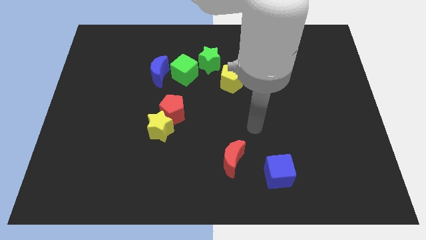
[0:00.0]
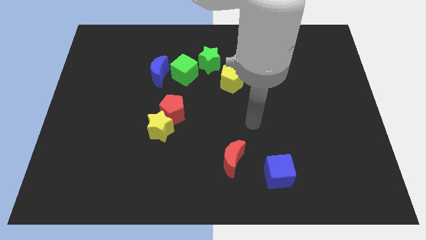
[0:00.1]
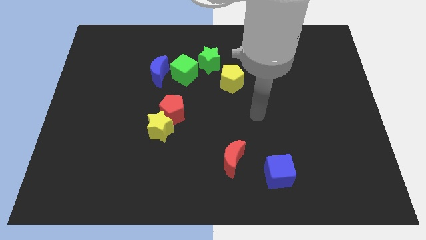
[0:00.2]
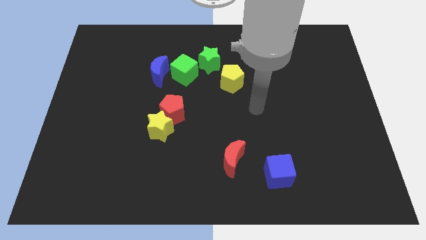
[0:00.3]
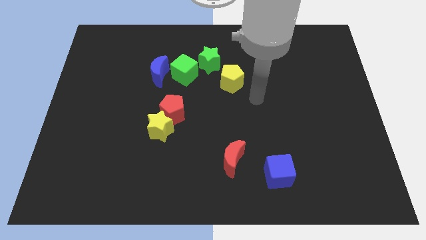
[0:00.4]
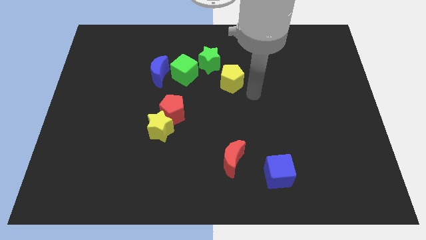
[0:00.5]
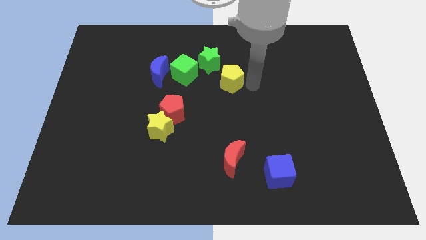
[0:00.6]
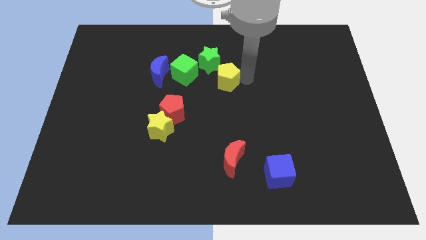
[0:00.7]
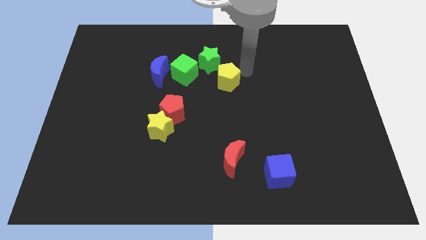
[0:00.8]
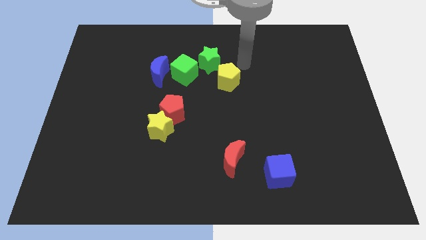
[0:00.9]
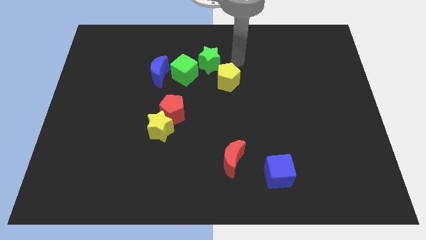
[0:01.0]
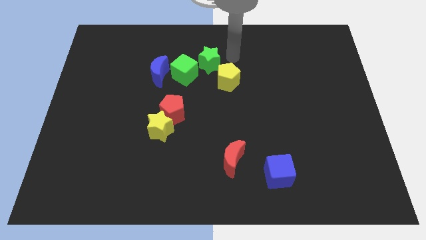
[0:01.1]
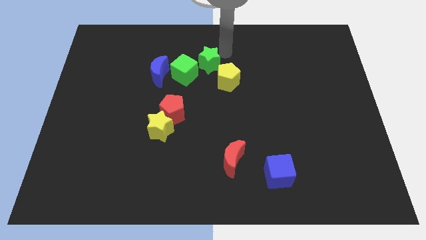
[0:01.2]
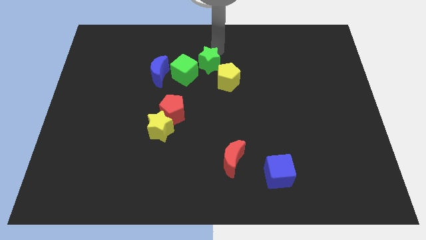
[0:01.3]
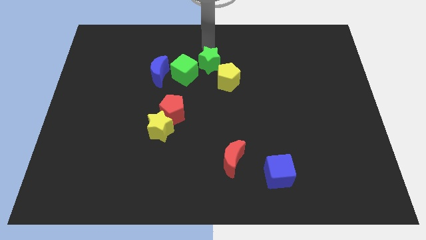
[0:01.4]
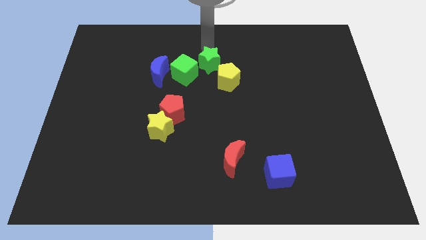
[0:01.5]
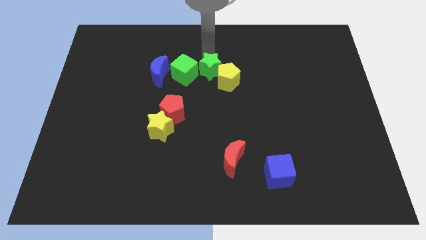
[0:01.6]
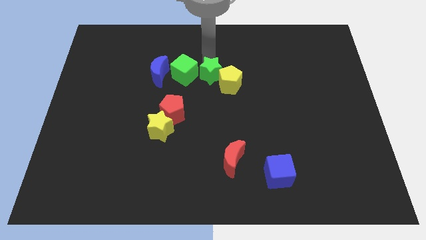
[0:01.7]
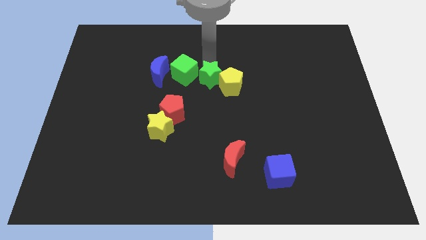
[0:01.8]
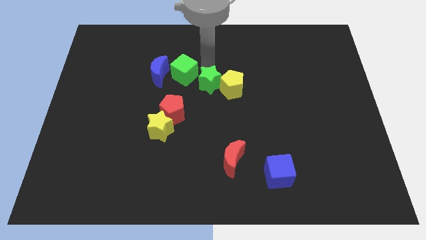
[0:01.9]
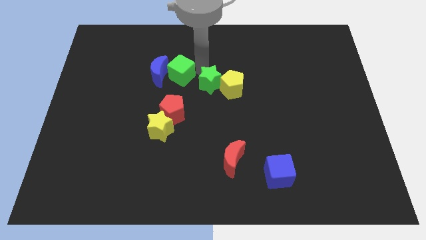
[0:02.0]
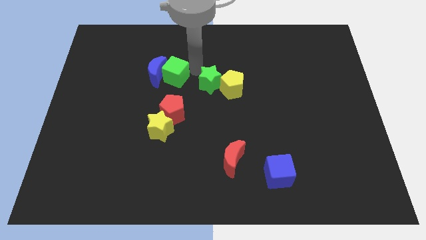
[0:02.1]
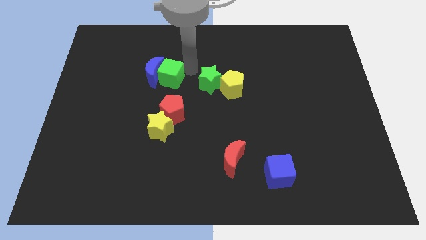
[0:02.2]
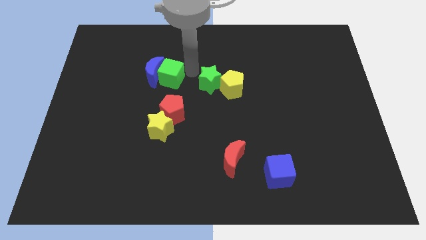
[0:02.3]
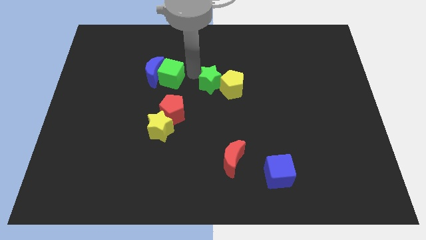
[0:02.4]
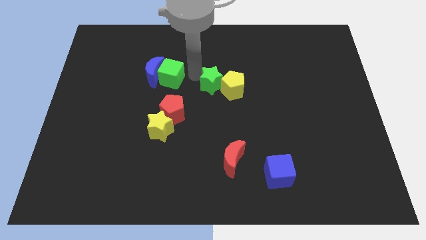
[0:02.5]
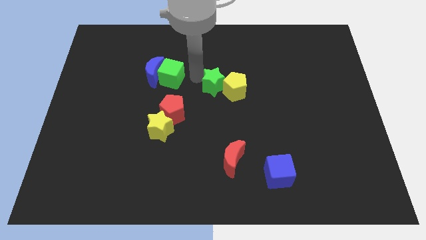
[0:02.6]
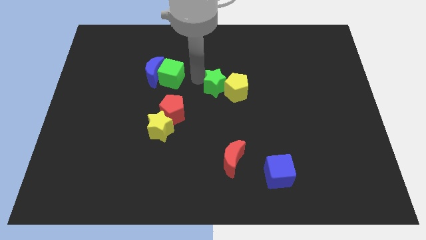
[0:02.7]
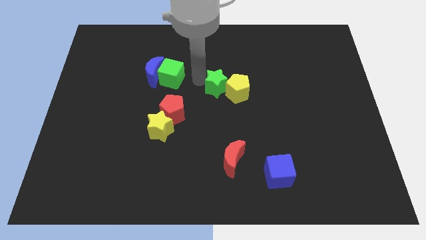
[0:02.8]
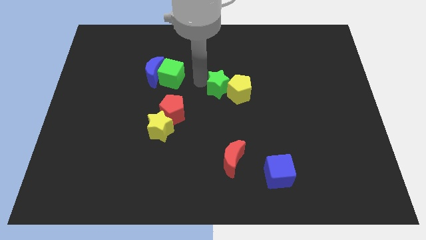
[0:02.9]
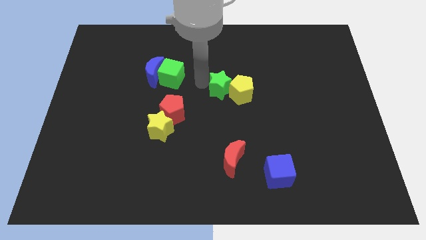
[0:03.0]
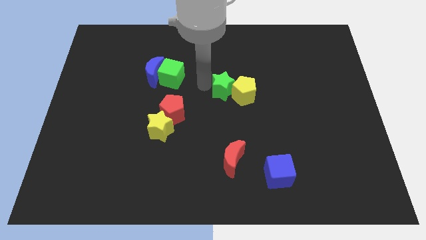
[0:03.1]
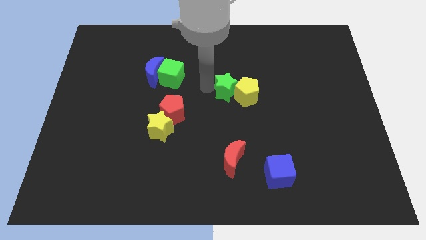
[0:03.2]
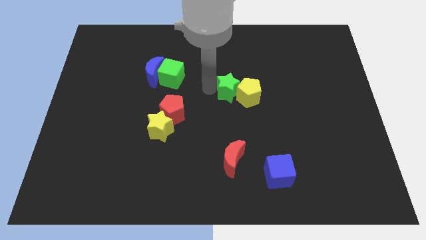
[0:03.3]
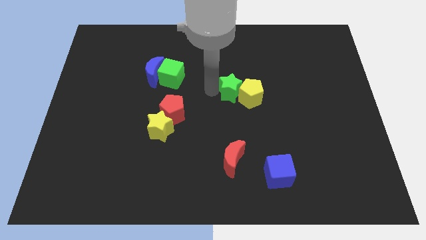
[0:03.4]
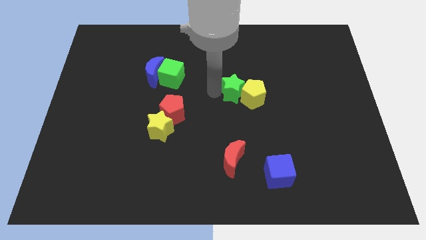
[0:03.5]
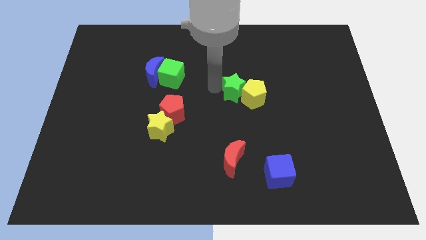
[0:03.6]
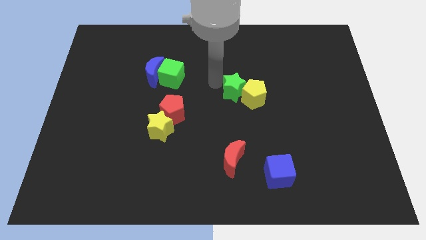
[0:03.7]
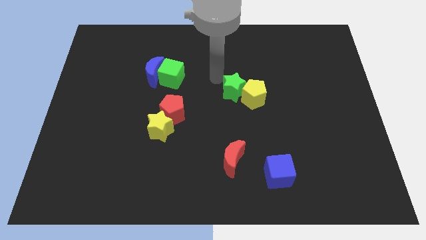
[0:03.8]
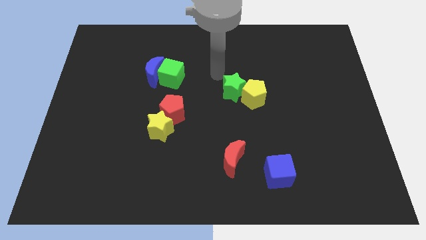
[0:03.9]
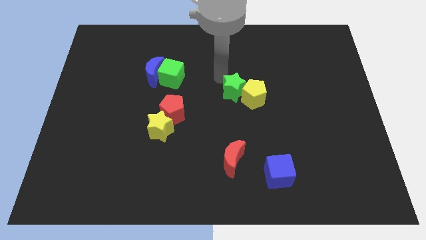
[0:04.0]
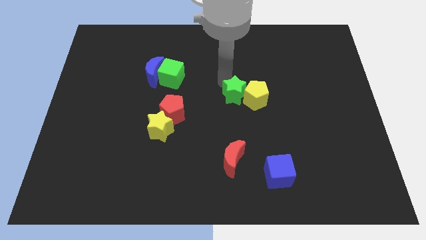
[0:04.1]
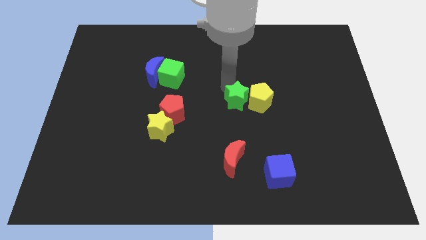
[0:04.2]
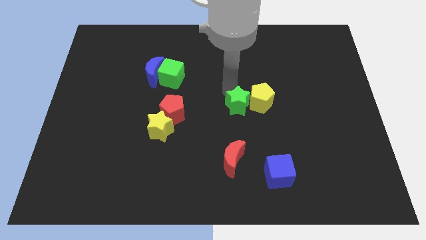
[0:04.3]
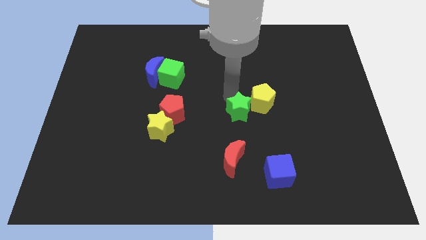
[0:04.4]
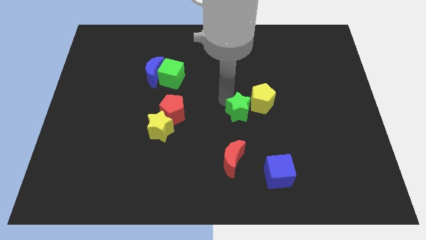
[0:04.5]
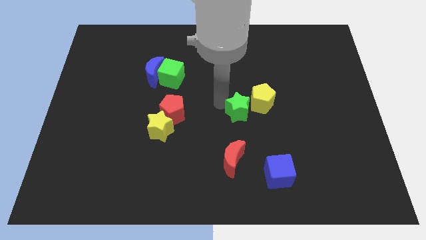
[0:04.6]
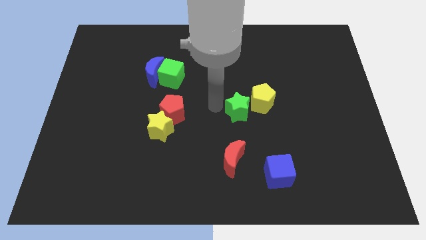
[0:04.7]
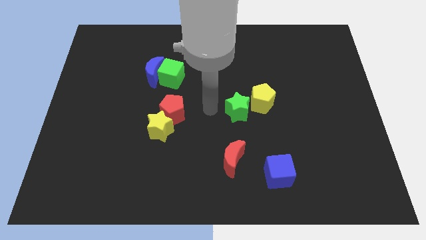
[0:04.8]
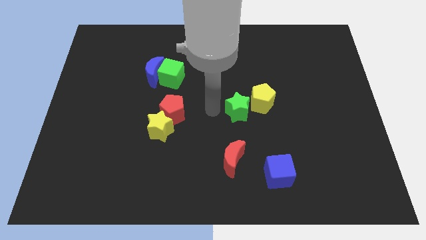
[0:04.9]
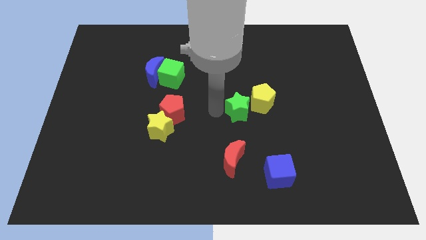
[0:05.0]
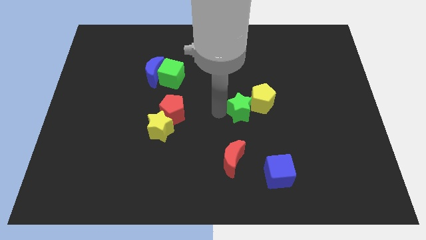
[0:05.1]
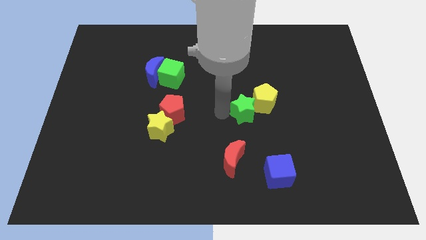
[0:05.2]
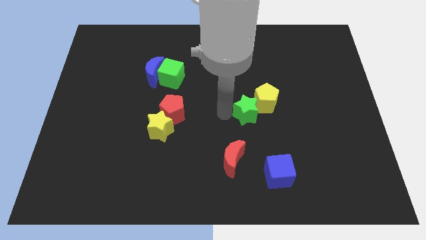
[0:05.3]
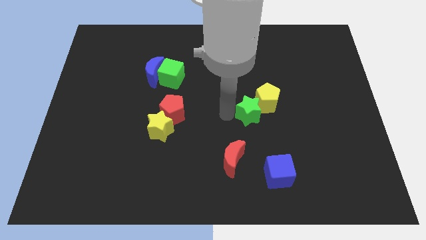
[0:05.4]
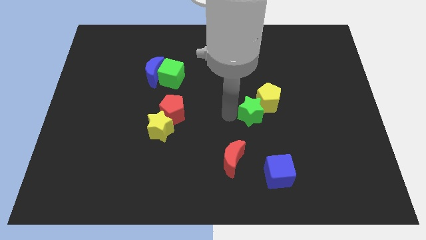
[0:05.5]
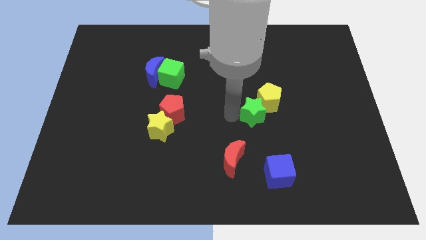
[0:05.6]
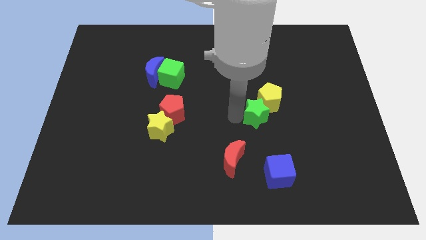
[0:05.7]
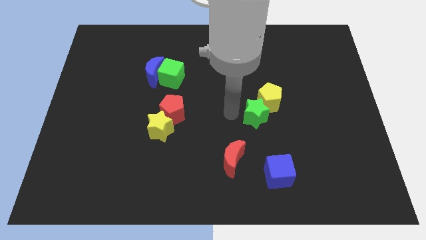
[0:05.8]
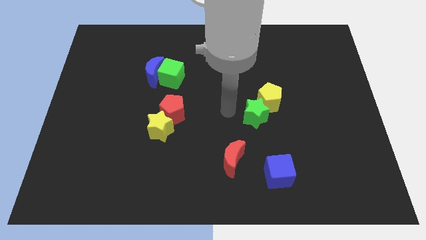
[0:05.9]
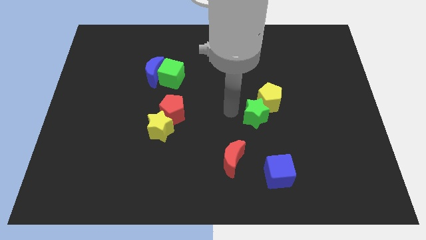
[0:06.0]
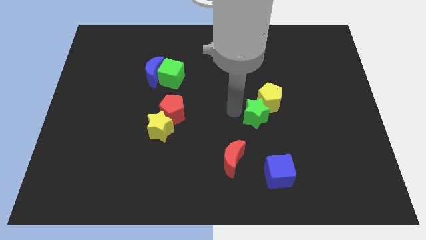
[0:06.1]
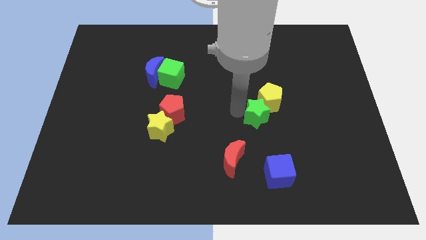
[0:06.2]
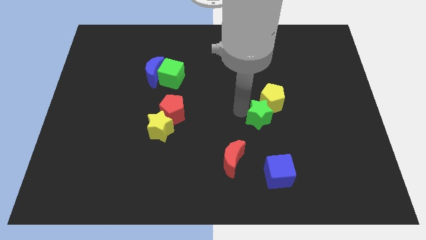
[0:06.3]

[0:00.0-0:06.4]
push the green star down and then to the right

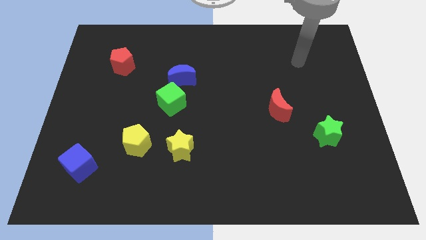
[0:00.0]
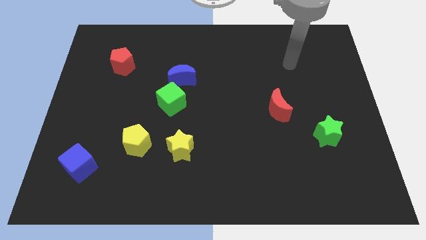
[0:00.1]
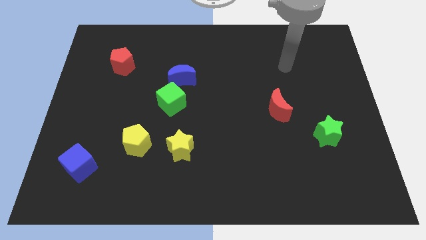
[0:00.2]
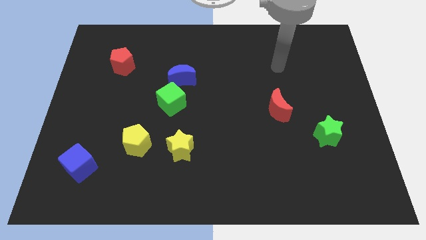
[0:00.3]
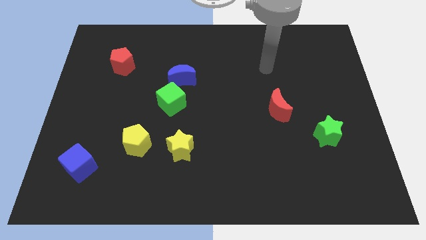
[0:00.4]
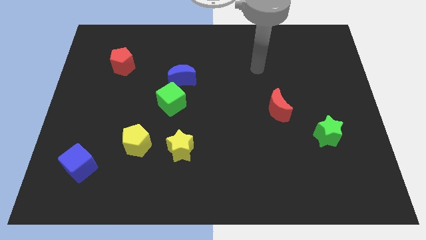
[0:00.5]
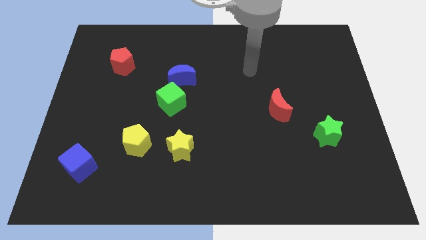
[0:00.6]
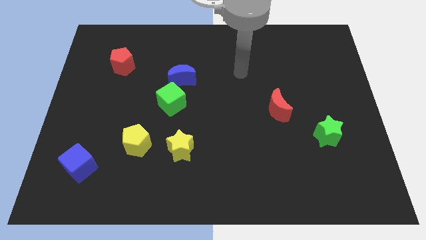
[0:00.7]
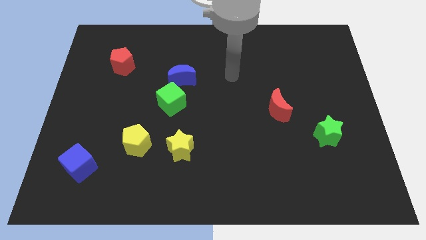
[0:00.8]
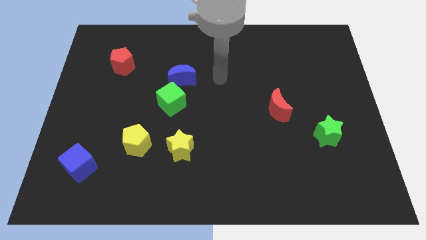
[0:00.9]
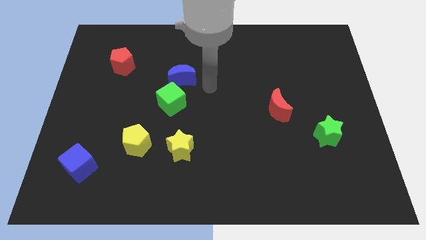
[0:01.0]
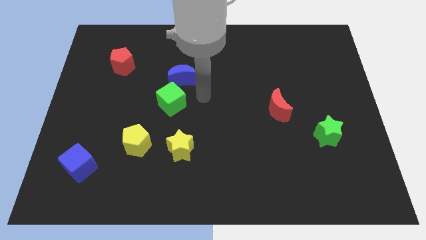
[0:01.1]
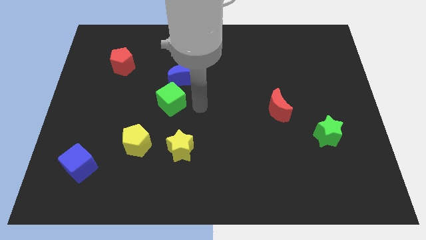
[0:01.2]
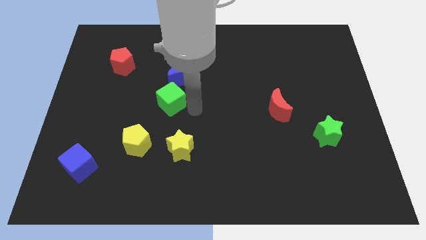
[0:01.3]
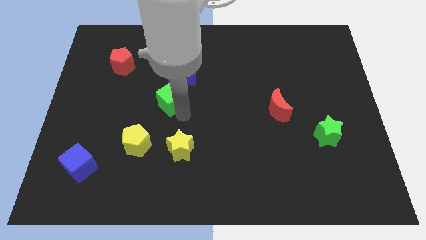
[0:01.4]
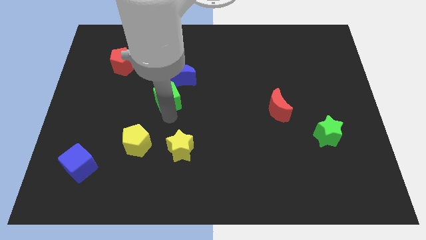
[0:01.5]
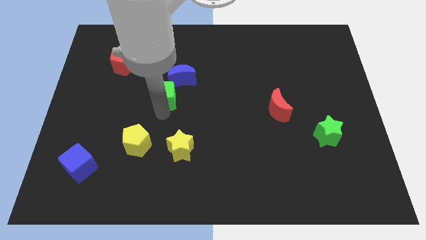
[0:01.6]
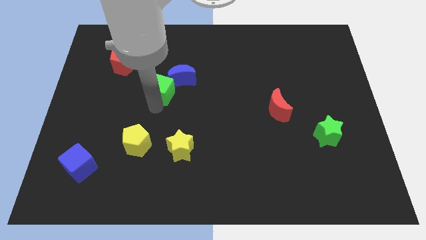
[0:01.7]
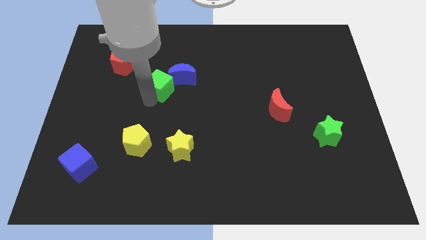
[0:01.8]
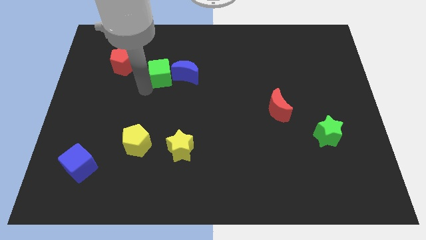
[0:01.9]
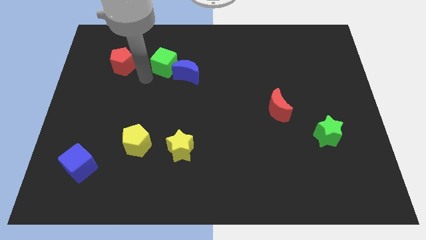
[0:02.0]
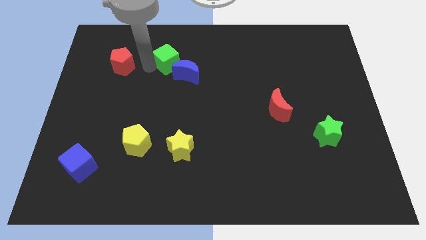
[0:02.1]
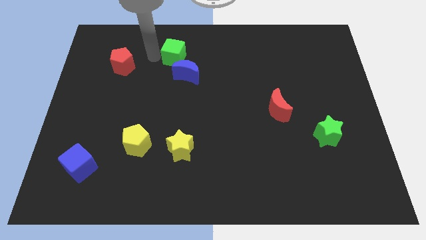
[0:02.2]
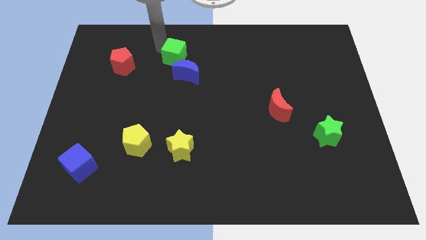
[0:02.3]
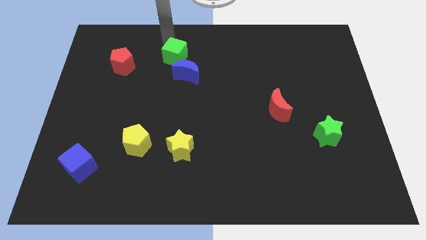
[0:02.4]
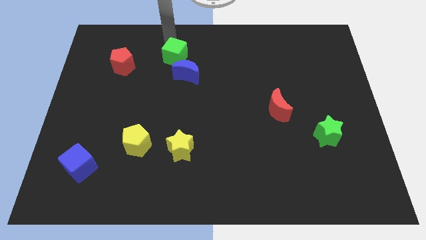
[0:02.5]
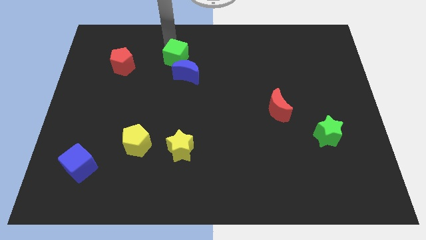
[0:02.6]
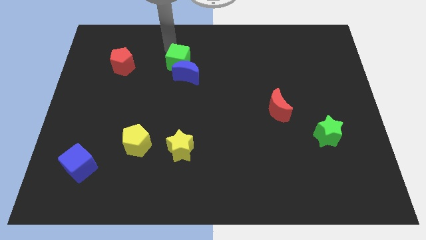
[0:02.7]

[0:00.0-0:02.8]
push the green cube upwards and then right a little
